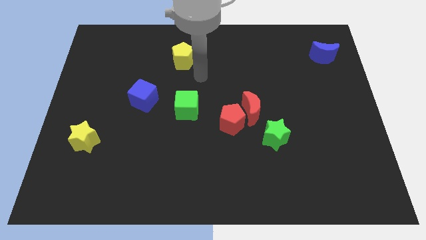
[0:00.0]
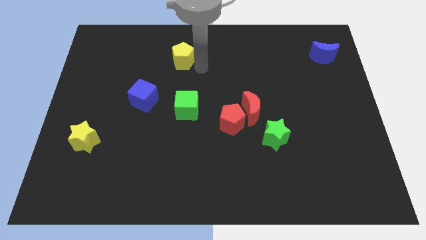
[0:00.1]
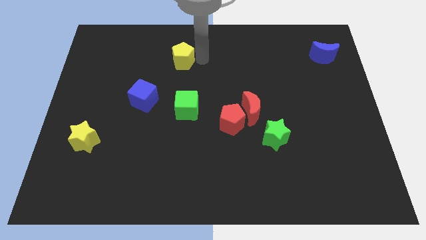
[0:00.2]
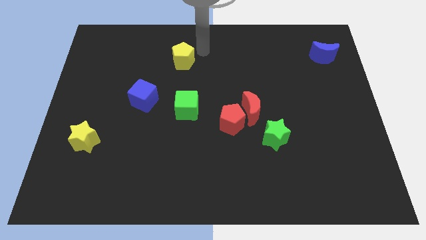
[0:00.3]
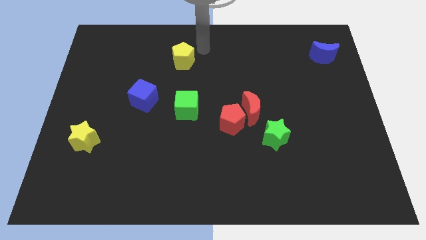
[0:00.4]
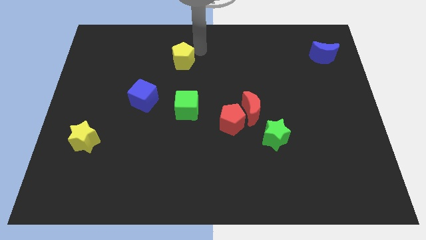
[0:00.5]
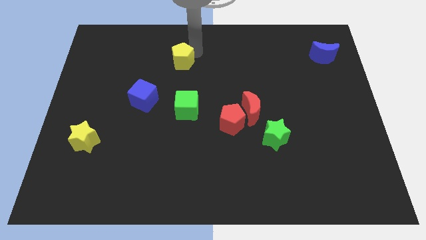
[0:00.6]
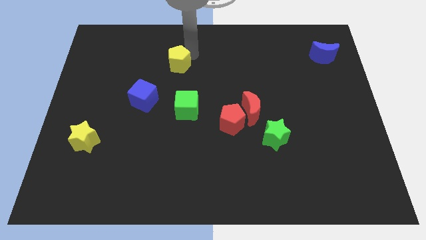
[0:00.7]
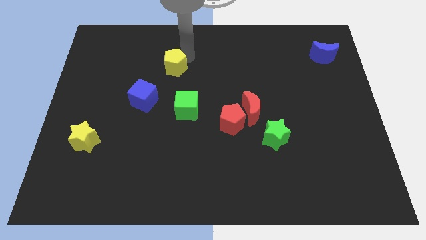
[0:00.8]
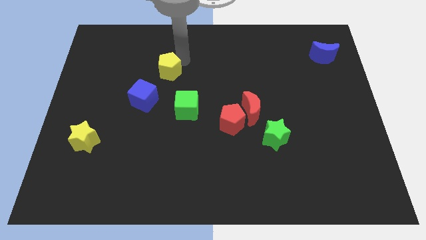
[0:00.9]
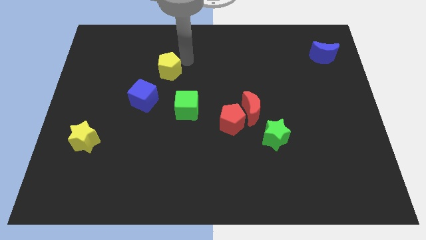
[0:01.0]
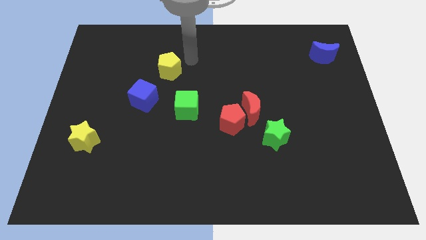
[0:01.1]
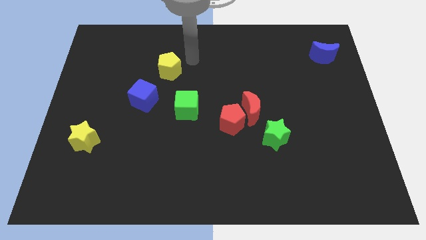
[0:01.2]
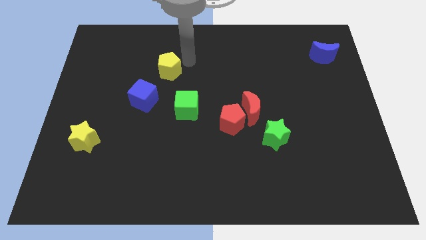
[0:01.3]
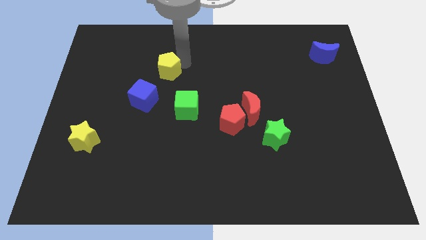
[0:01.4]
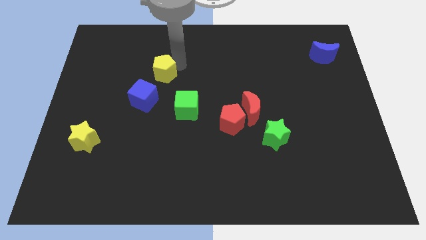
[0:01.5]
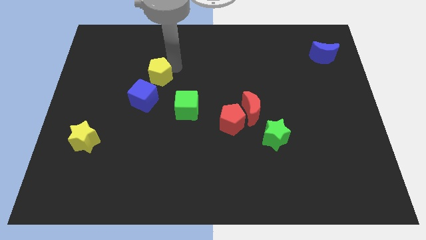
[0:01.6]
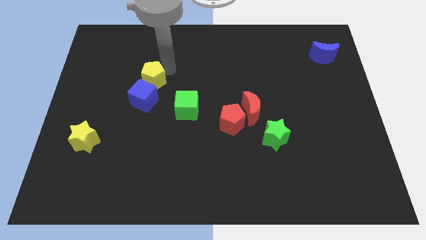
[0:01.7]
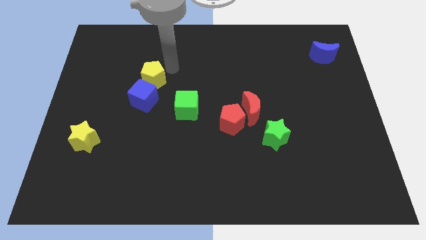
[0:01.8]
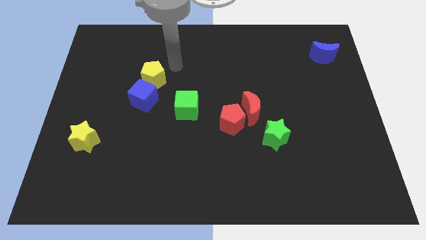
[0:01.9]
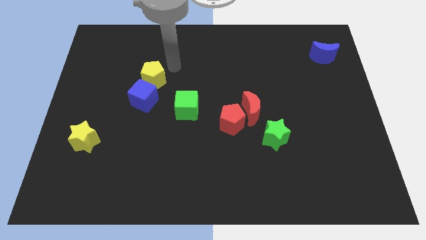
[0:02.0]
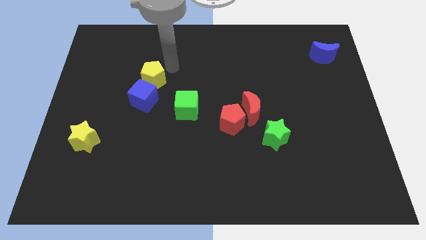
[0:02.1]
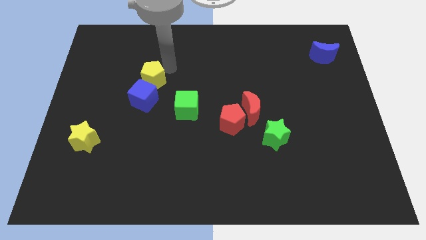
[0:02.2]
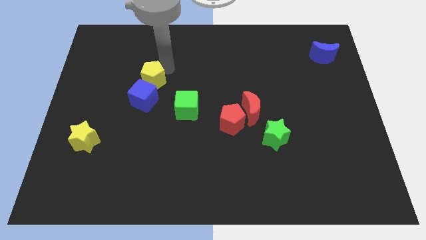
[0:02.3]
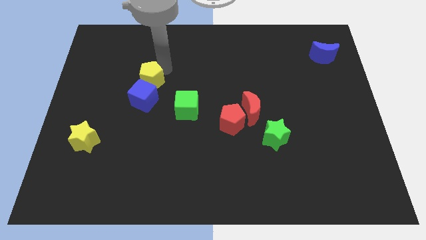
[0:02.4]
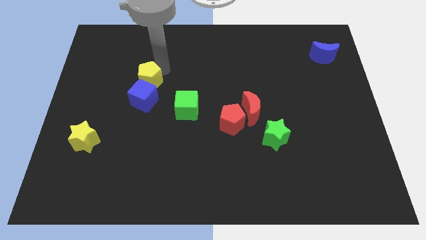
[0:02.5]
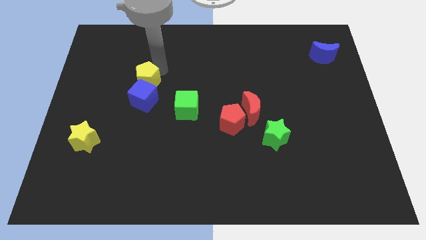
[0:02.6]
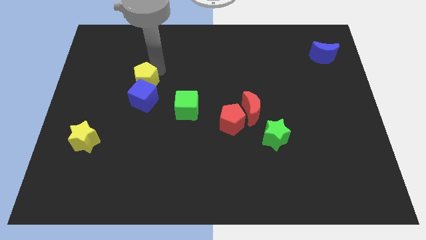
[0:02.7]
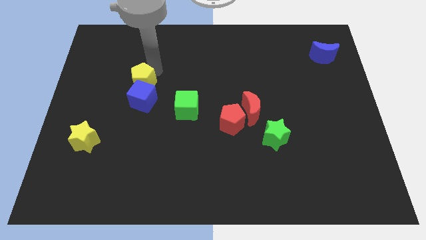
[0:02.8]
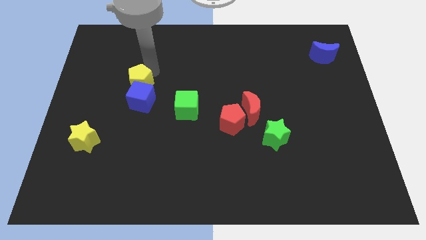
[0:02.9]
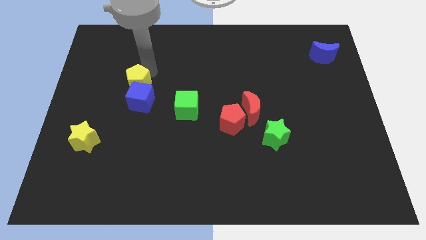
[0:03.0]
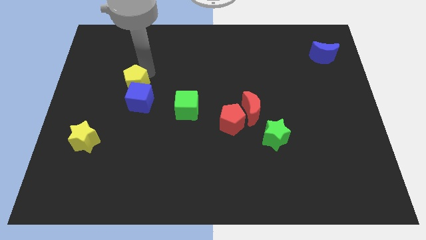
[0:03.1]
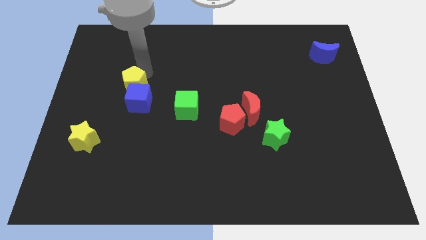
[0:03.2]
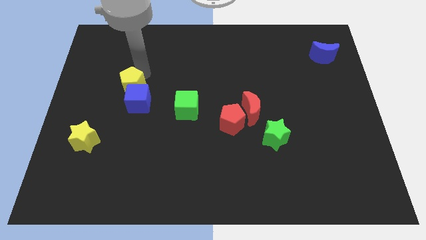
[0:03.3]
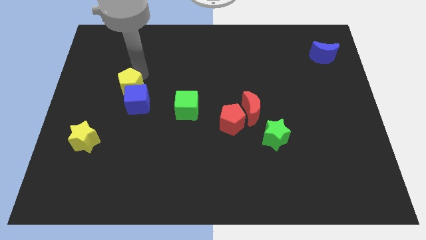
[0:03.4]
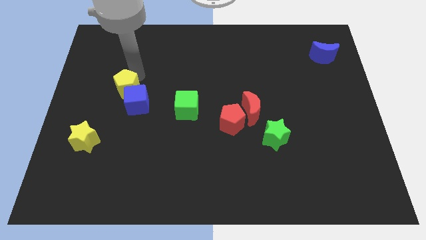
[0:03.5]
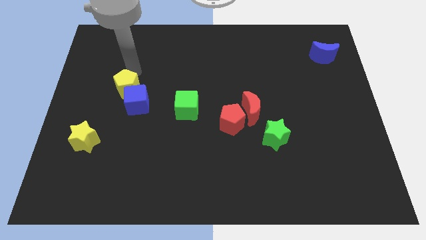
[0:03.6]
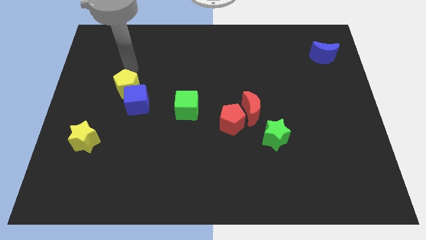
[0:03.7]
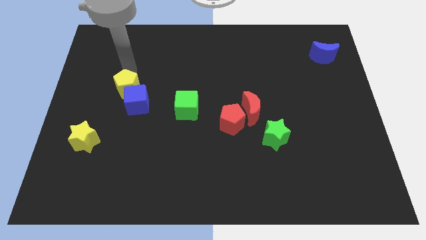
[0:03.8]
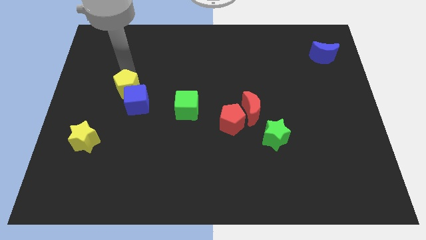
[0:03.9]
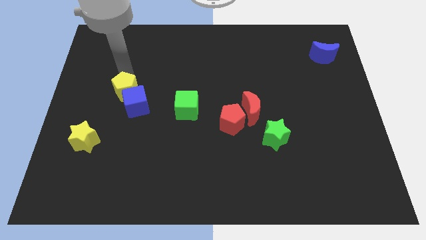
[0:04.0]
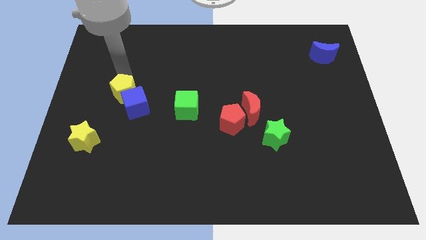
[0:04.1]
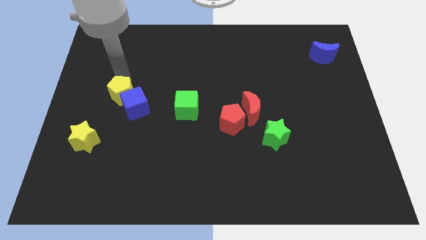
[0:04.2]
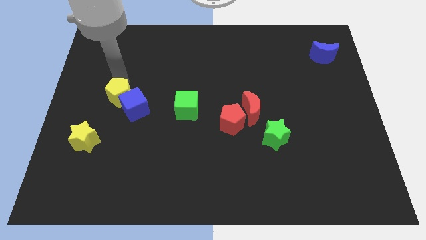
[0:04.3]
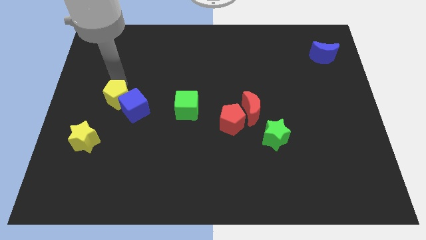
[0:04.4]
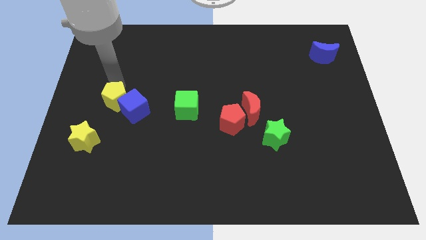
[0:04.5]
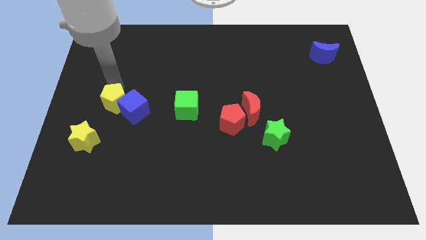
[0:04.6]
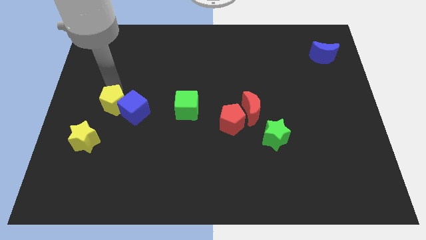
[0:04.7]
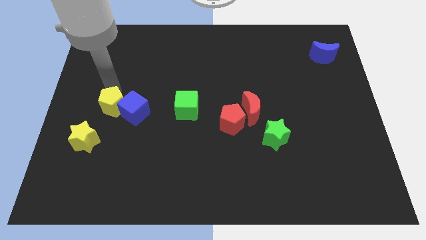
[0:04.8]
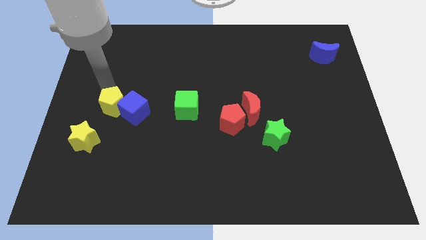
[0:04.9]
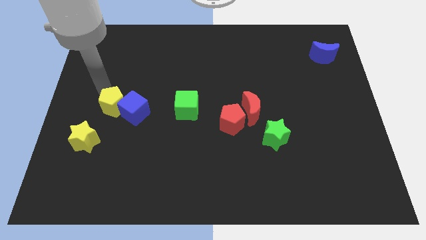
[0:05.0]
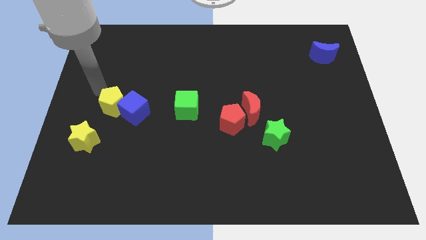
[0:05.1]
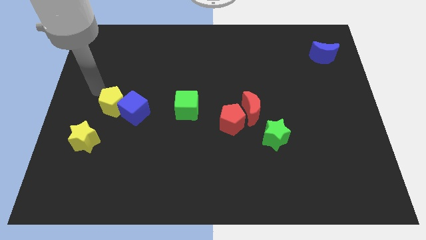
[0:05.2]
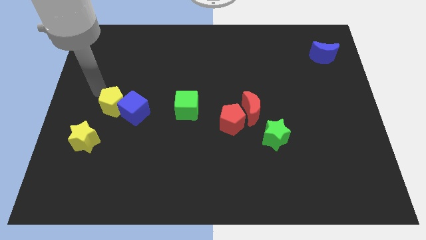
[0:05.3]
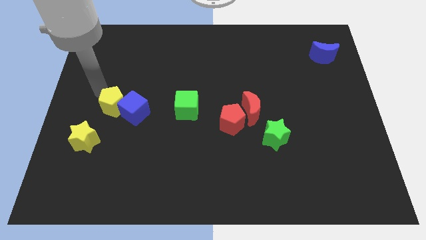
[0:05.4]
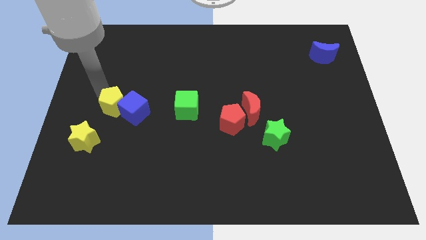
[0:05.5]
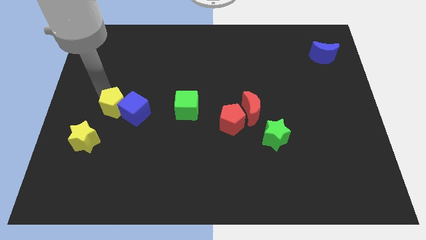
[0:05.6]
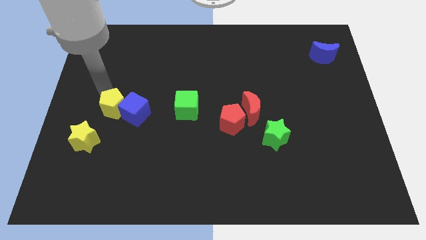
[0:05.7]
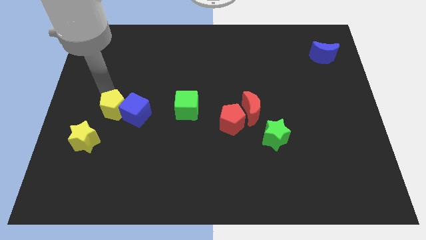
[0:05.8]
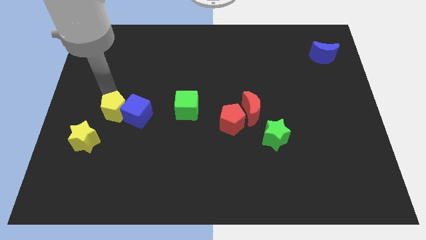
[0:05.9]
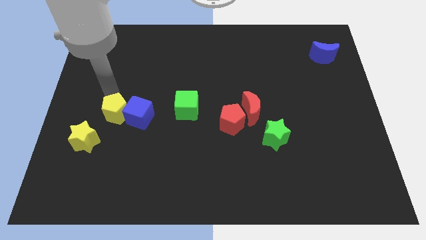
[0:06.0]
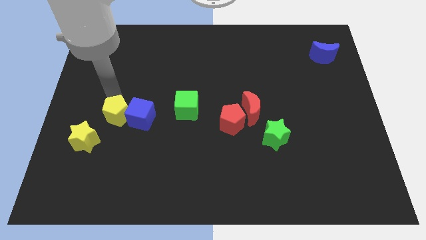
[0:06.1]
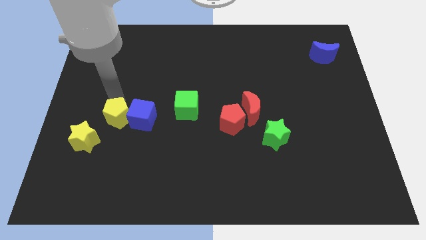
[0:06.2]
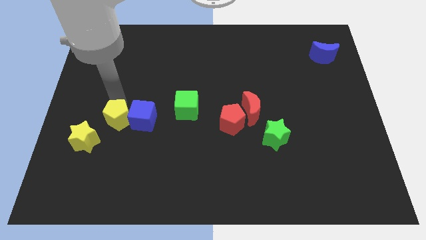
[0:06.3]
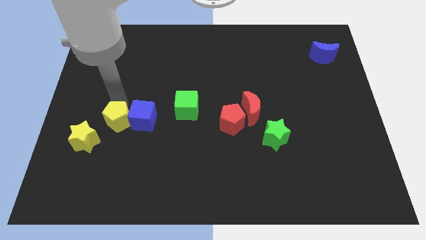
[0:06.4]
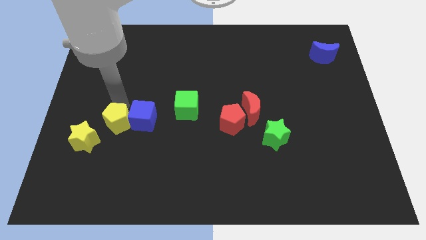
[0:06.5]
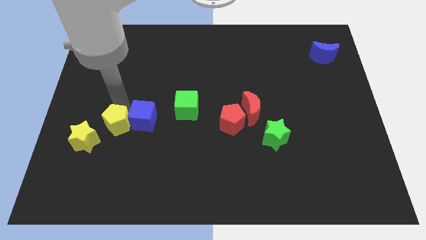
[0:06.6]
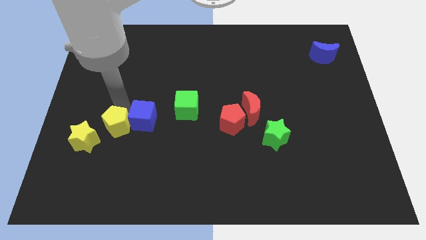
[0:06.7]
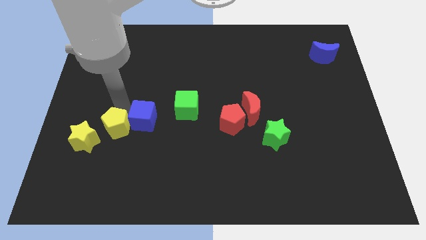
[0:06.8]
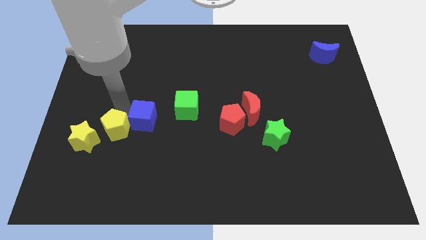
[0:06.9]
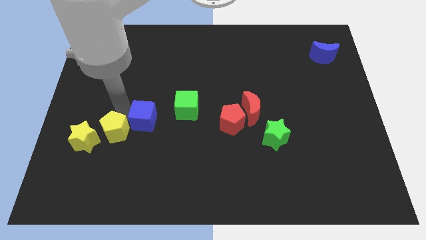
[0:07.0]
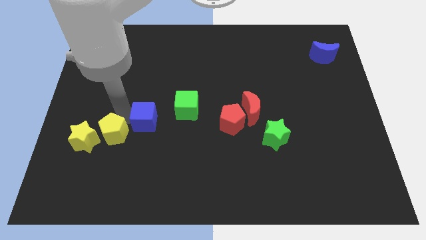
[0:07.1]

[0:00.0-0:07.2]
push the yellow pentagon towards the yellow star
